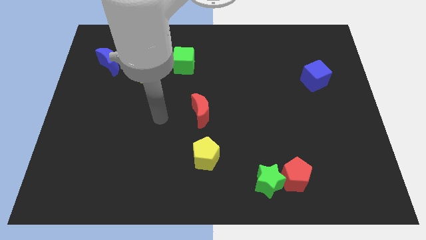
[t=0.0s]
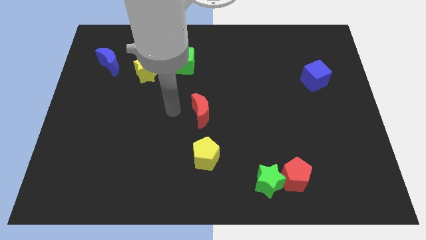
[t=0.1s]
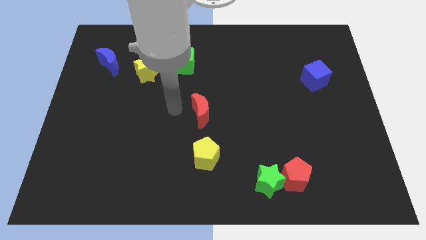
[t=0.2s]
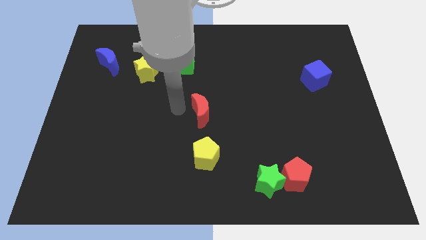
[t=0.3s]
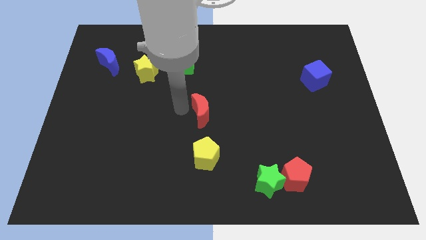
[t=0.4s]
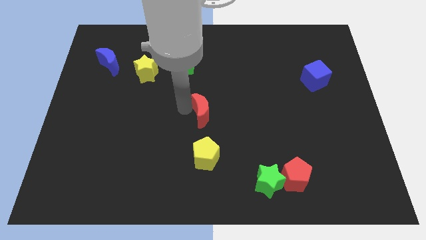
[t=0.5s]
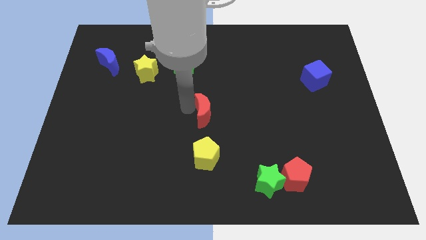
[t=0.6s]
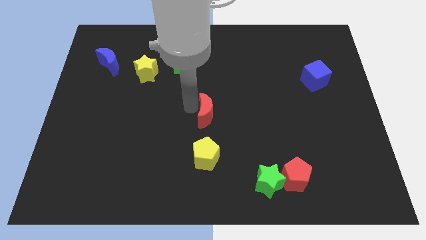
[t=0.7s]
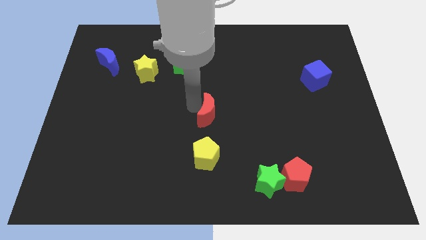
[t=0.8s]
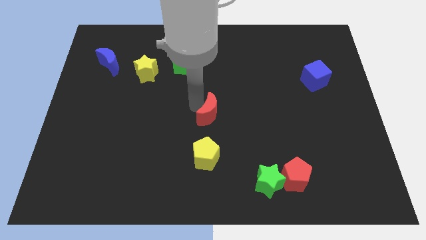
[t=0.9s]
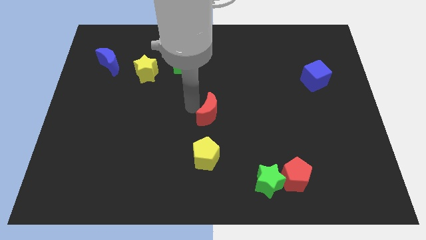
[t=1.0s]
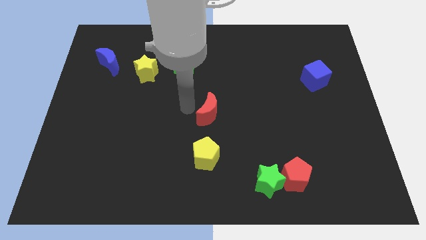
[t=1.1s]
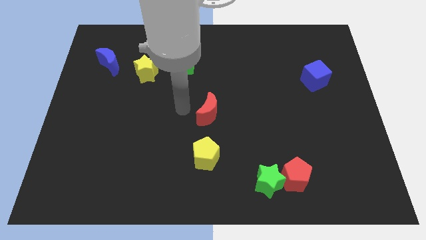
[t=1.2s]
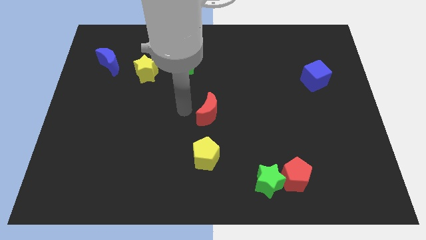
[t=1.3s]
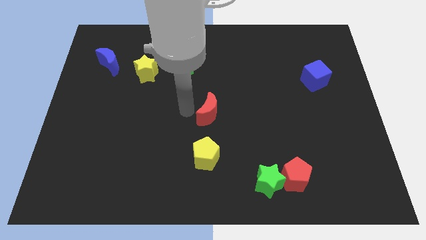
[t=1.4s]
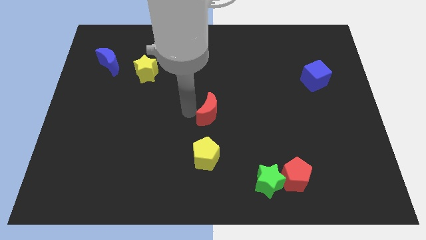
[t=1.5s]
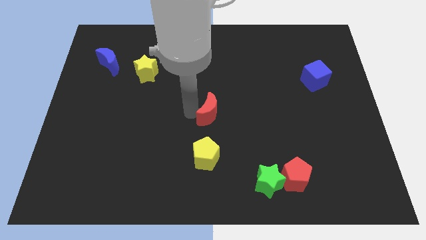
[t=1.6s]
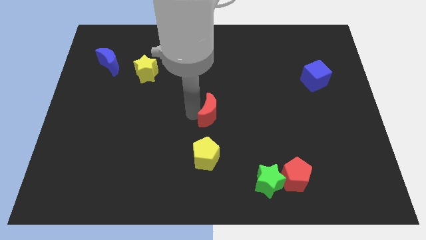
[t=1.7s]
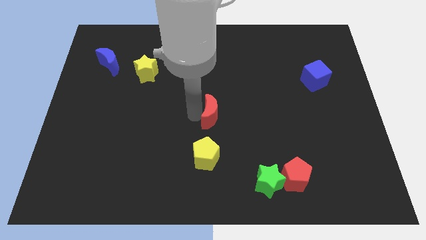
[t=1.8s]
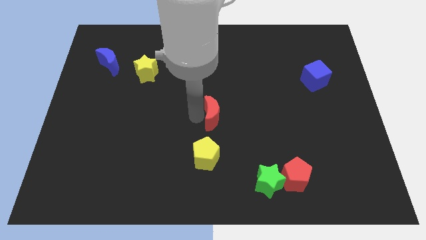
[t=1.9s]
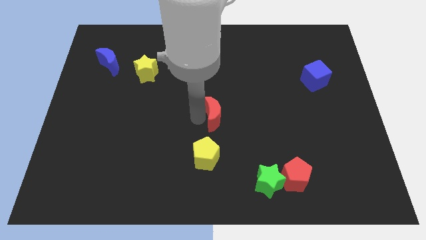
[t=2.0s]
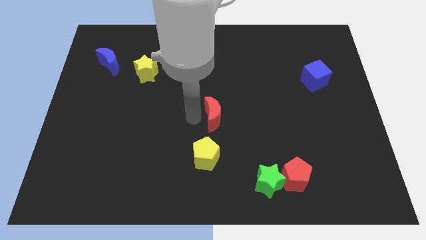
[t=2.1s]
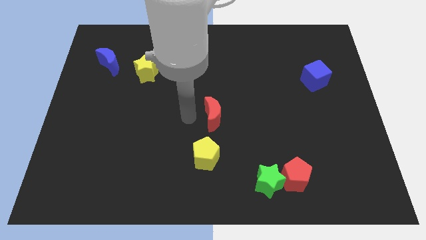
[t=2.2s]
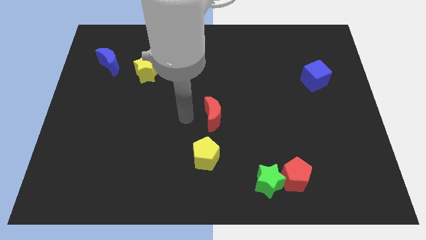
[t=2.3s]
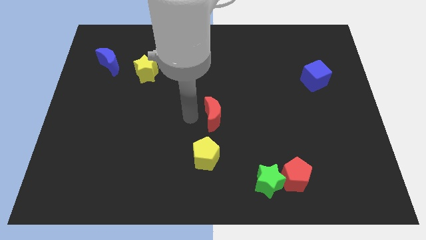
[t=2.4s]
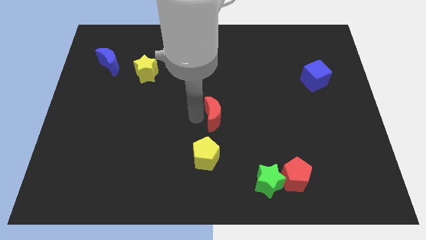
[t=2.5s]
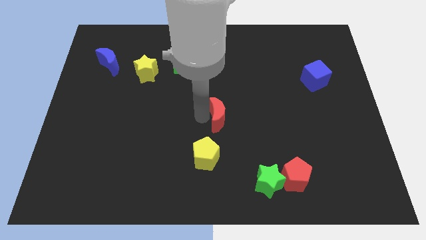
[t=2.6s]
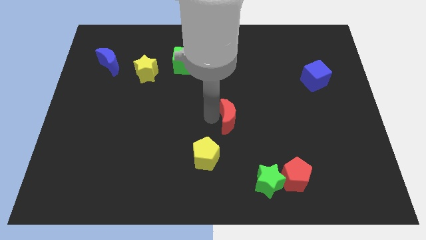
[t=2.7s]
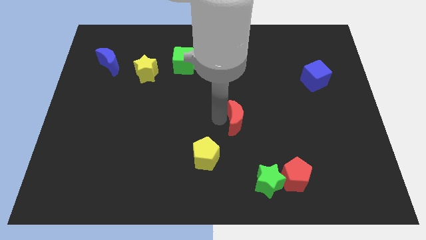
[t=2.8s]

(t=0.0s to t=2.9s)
push the red moon to the right a bit

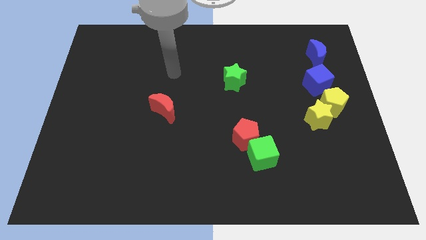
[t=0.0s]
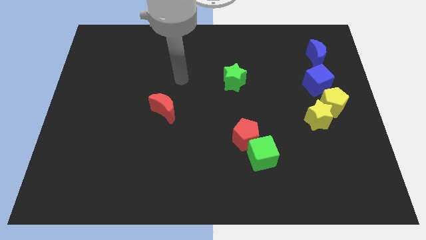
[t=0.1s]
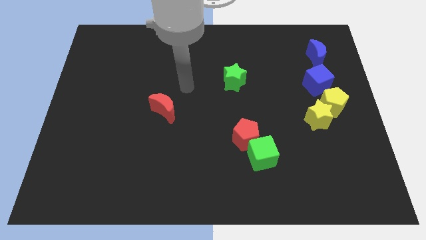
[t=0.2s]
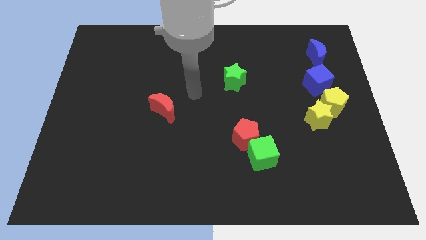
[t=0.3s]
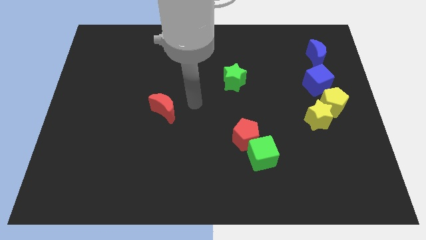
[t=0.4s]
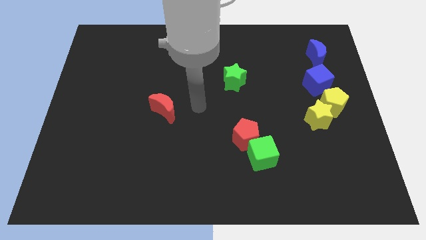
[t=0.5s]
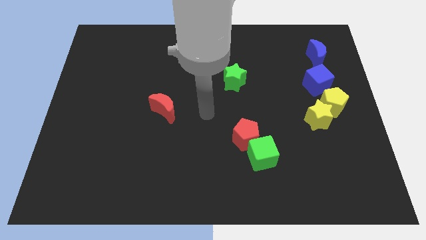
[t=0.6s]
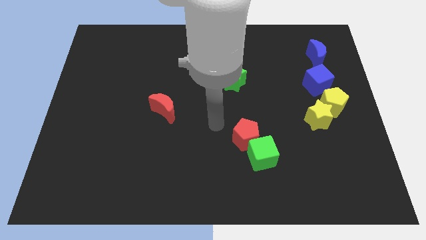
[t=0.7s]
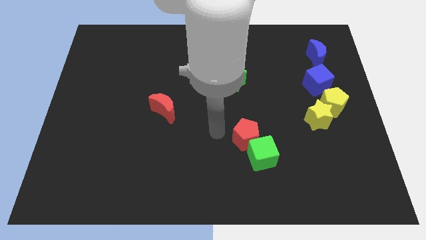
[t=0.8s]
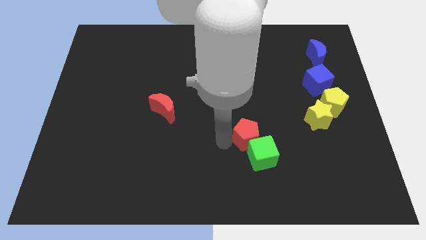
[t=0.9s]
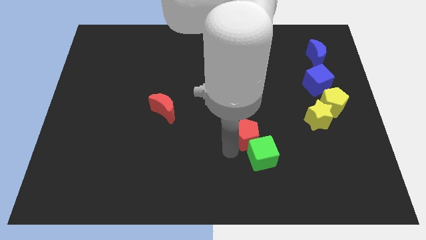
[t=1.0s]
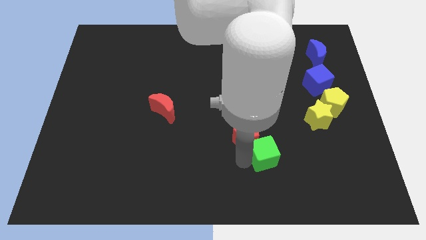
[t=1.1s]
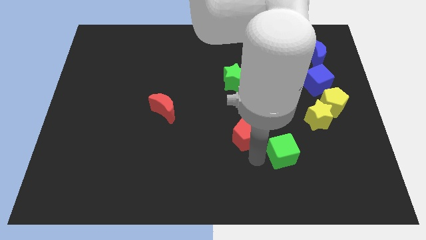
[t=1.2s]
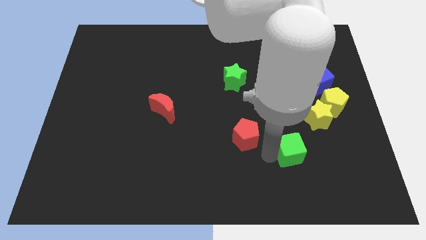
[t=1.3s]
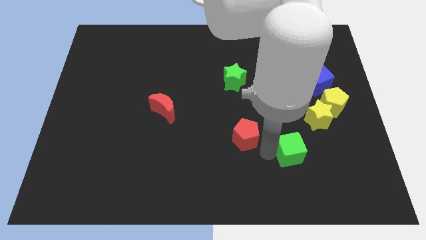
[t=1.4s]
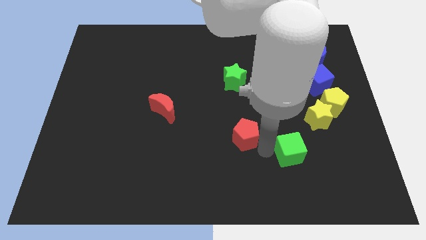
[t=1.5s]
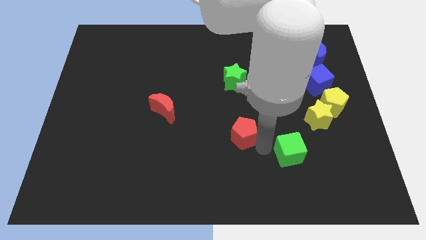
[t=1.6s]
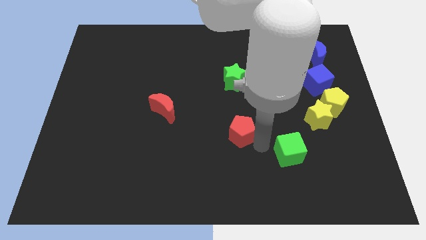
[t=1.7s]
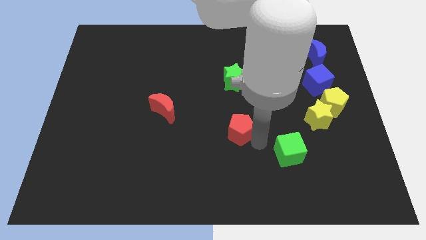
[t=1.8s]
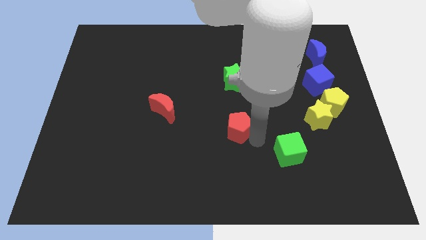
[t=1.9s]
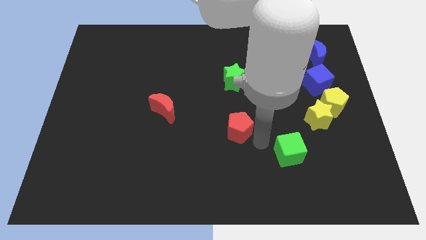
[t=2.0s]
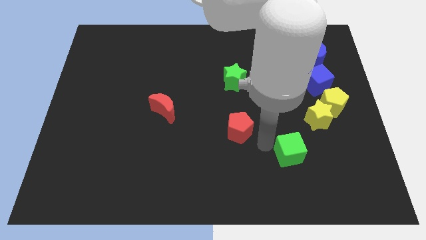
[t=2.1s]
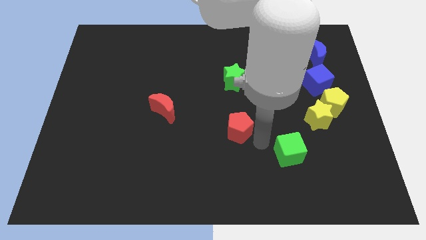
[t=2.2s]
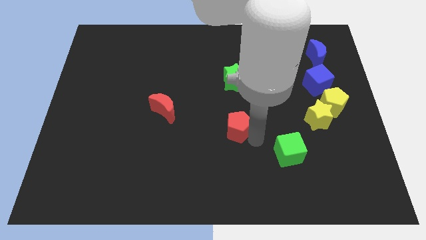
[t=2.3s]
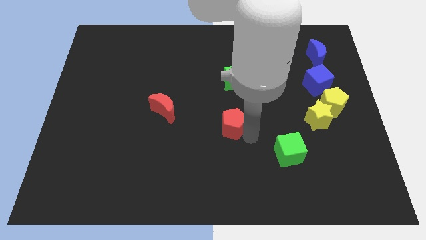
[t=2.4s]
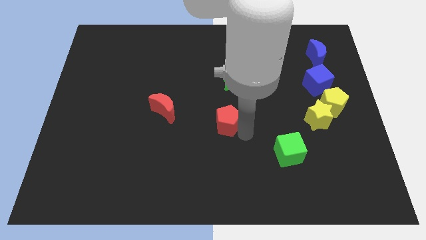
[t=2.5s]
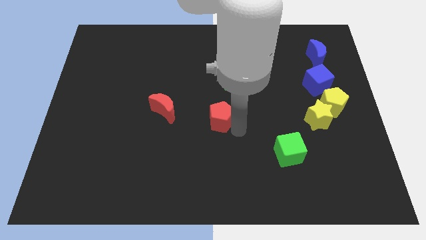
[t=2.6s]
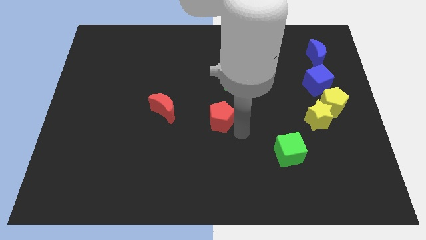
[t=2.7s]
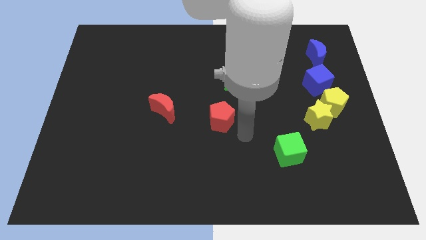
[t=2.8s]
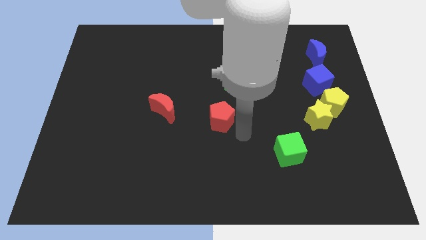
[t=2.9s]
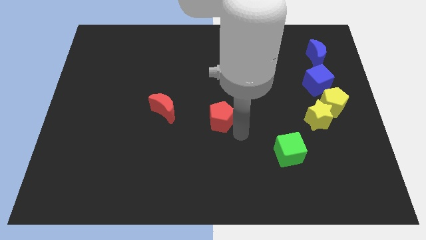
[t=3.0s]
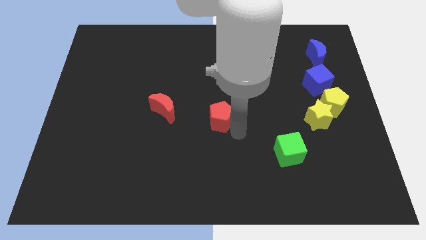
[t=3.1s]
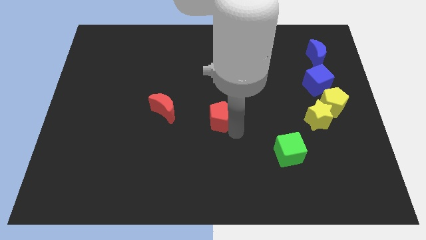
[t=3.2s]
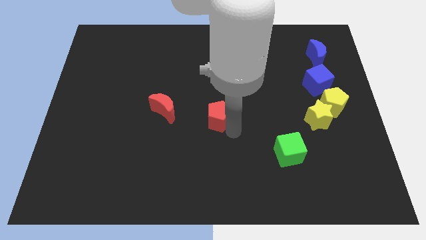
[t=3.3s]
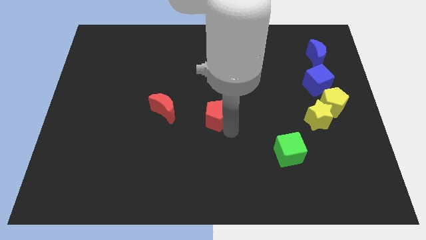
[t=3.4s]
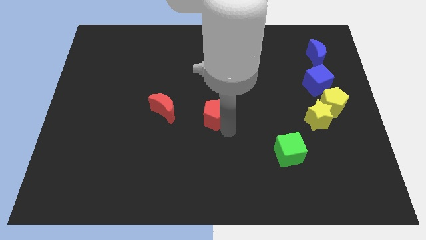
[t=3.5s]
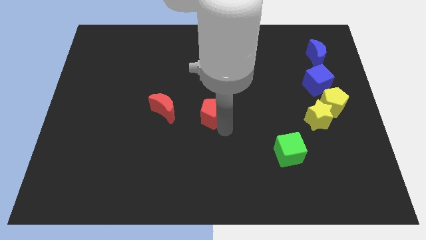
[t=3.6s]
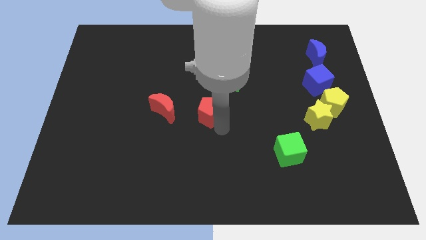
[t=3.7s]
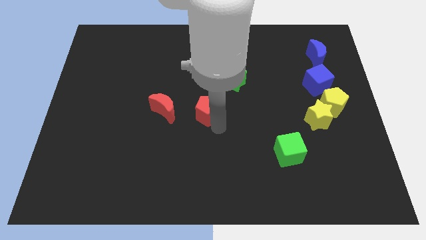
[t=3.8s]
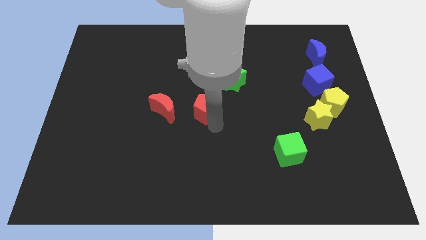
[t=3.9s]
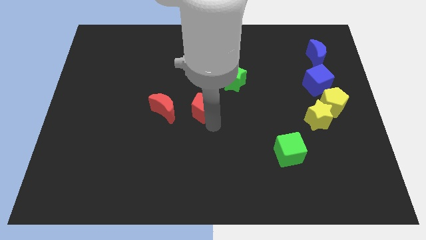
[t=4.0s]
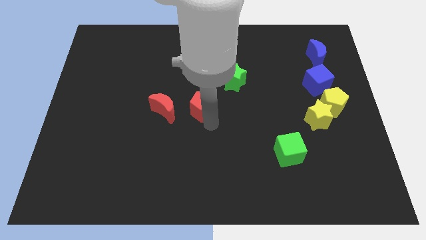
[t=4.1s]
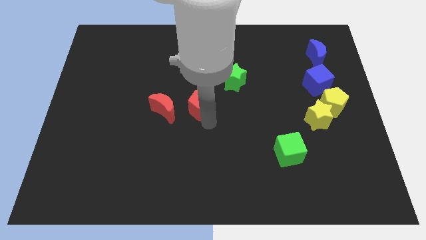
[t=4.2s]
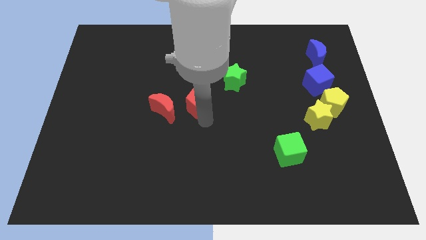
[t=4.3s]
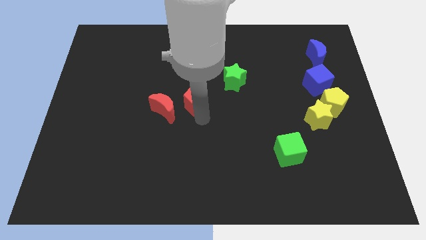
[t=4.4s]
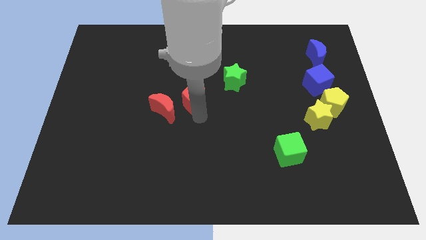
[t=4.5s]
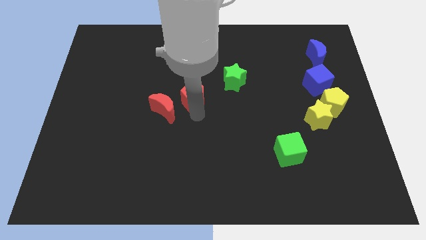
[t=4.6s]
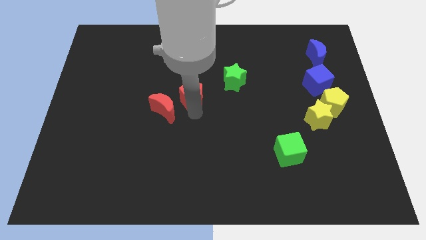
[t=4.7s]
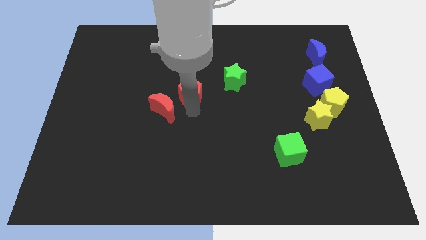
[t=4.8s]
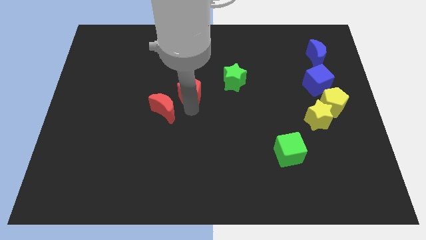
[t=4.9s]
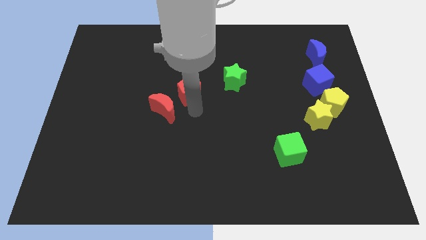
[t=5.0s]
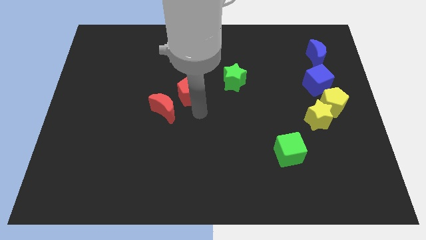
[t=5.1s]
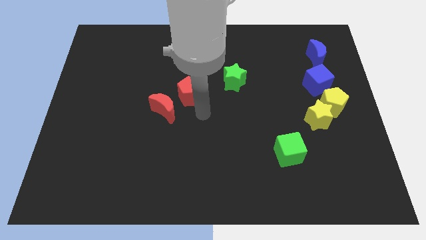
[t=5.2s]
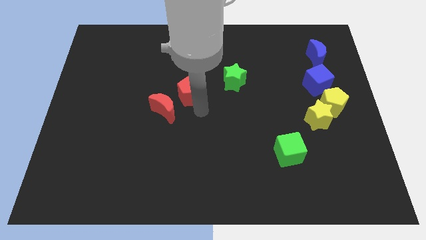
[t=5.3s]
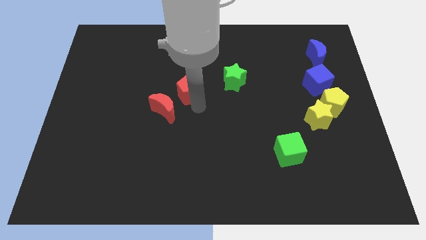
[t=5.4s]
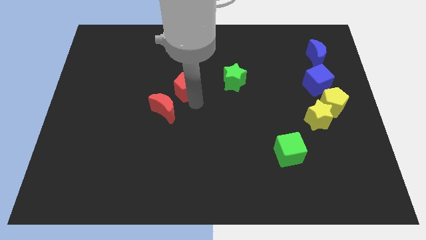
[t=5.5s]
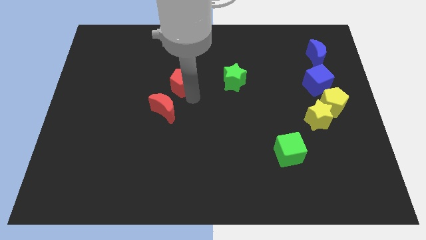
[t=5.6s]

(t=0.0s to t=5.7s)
move the red pentagon up and then to the left
